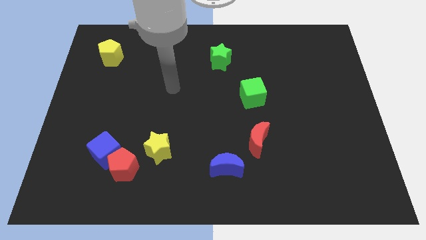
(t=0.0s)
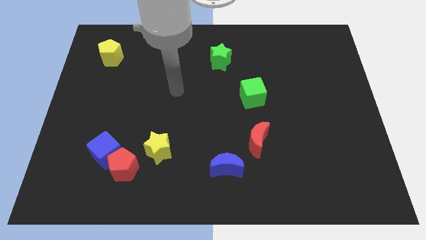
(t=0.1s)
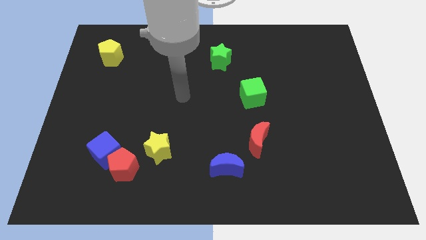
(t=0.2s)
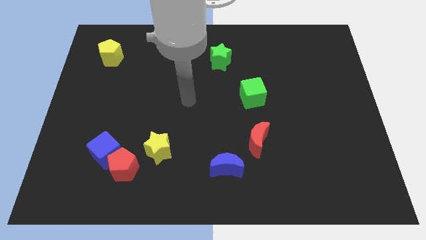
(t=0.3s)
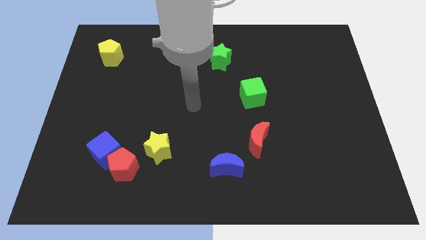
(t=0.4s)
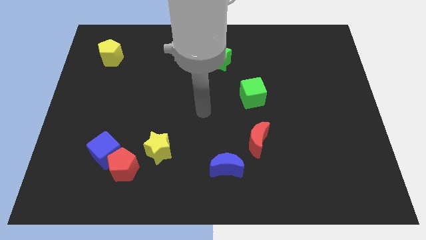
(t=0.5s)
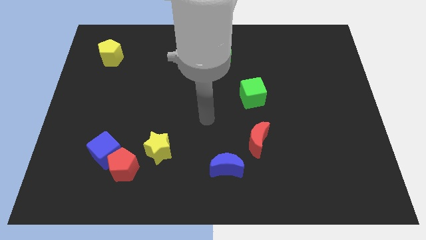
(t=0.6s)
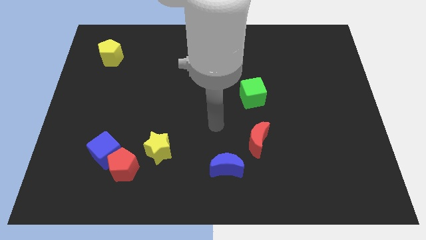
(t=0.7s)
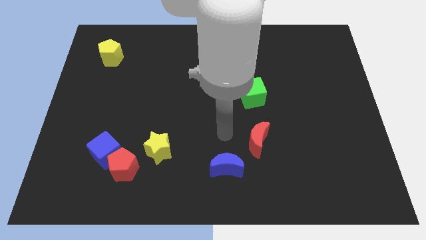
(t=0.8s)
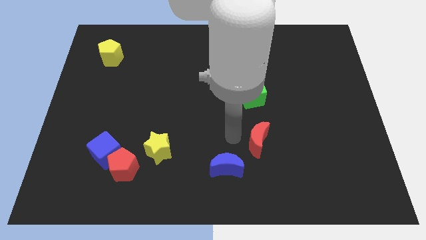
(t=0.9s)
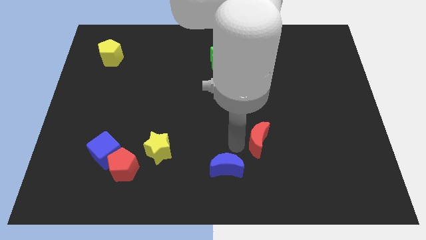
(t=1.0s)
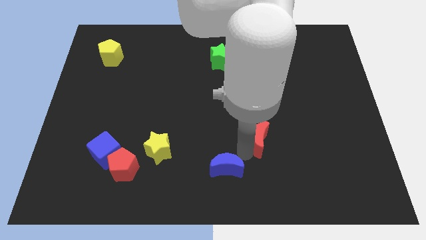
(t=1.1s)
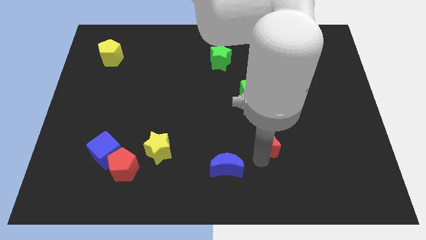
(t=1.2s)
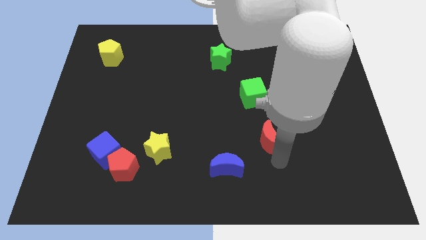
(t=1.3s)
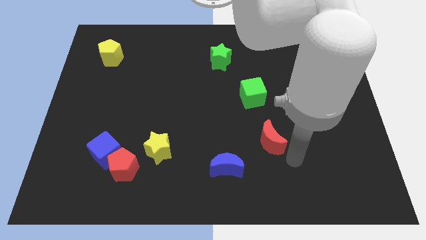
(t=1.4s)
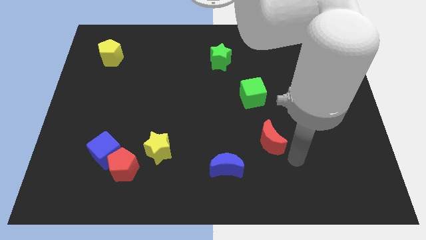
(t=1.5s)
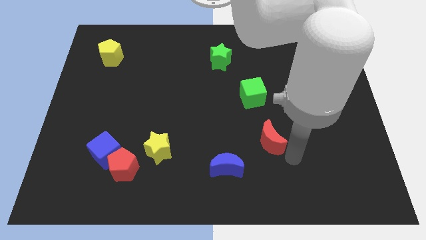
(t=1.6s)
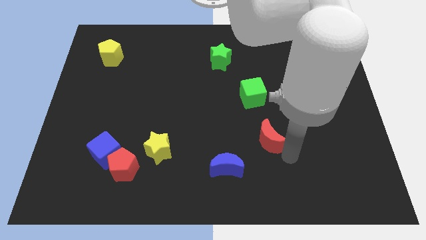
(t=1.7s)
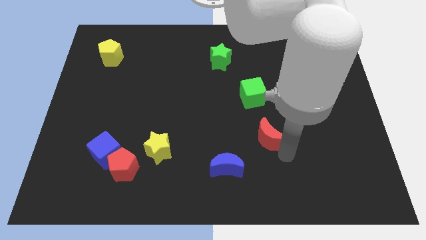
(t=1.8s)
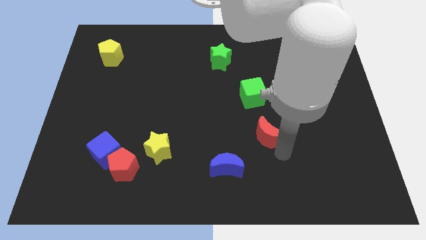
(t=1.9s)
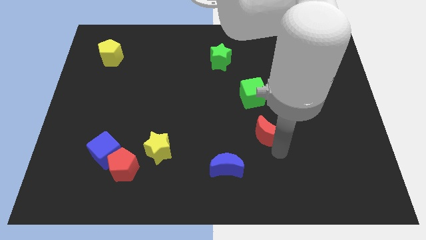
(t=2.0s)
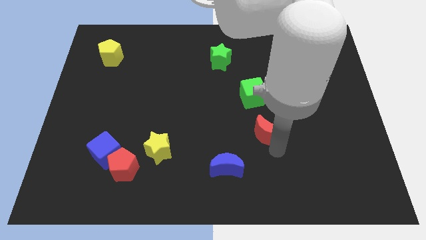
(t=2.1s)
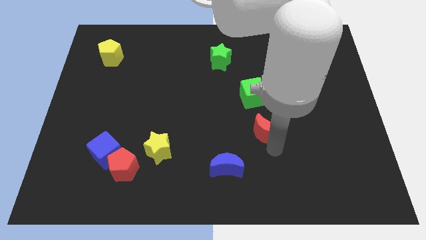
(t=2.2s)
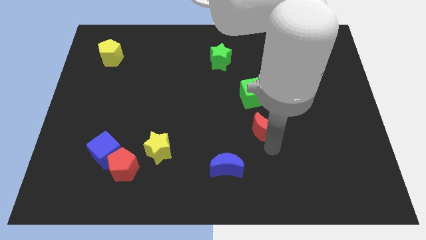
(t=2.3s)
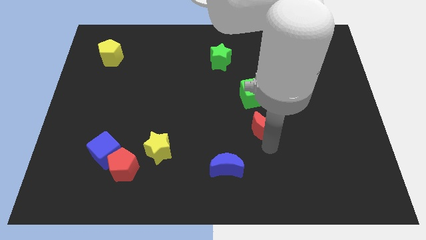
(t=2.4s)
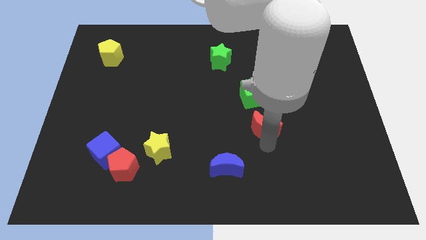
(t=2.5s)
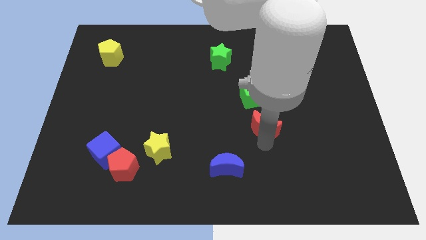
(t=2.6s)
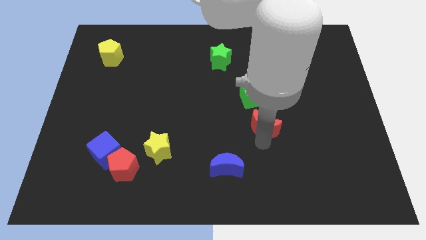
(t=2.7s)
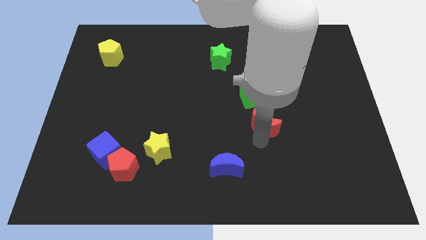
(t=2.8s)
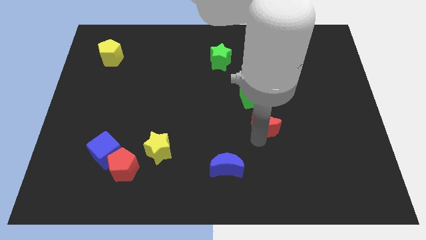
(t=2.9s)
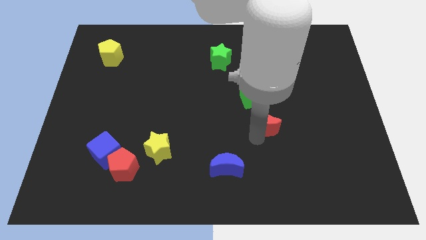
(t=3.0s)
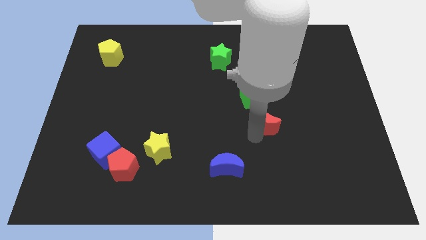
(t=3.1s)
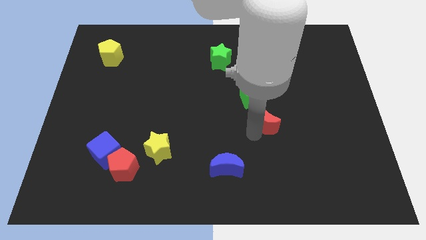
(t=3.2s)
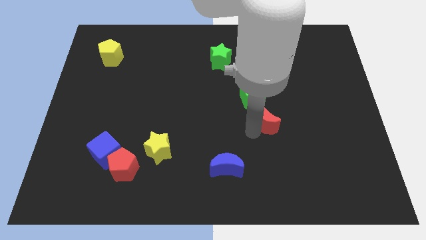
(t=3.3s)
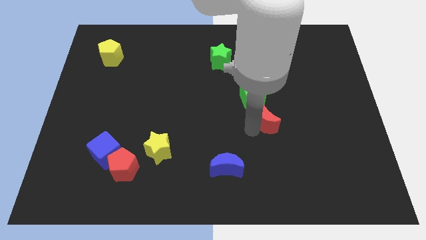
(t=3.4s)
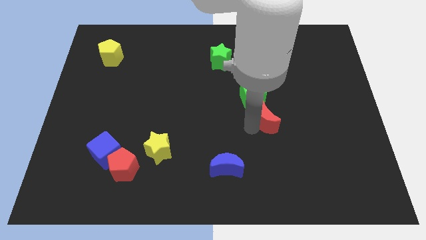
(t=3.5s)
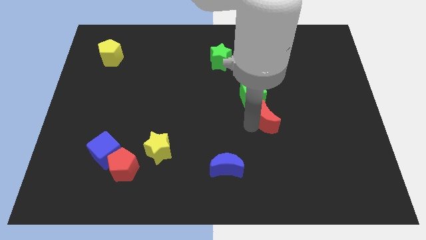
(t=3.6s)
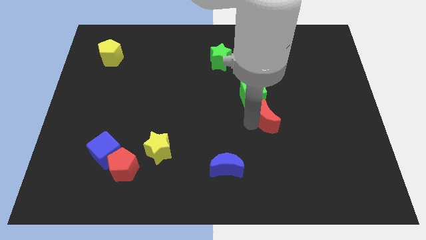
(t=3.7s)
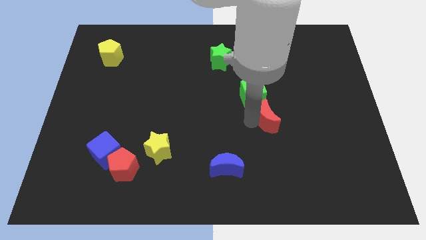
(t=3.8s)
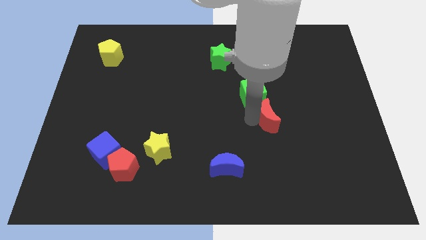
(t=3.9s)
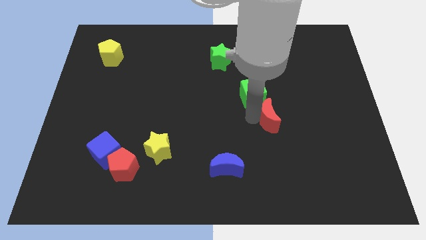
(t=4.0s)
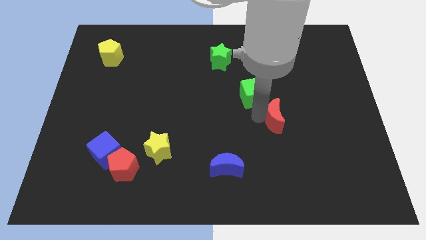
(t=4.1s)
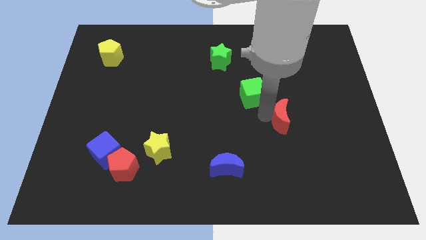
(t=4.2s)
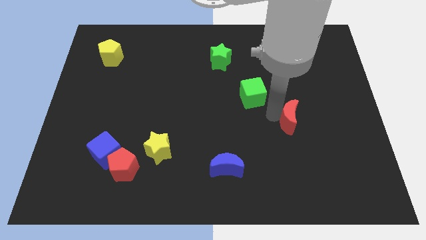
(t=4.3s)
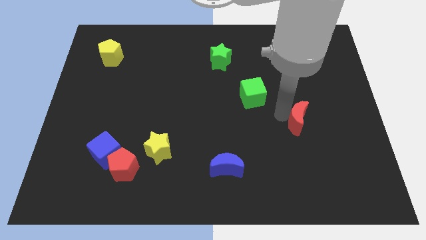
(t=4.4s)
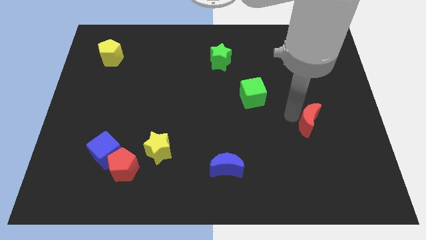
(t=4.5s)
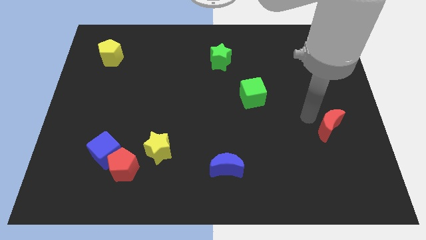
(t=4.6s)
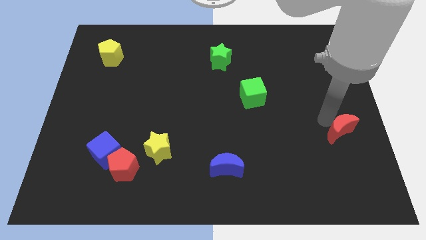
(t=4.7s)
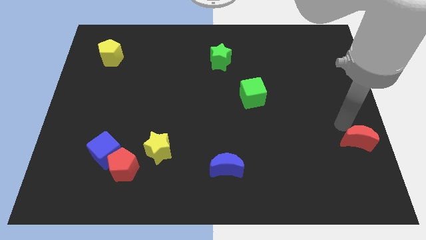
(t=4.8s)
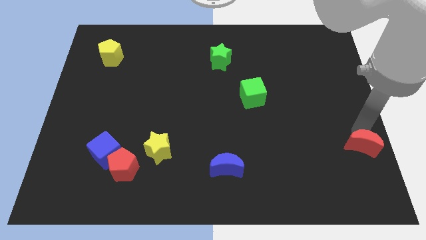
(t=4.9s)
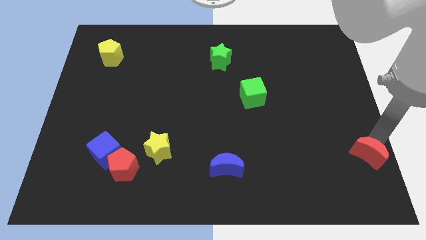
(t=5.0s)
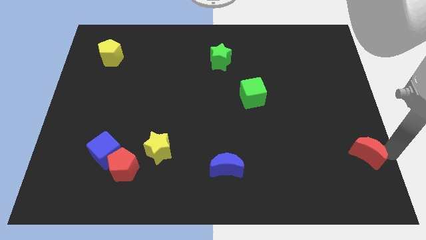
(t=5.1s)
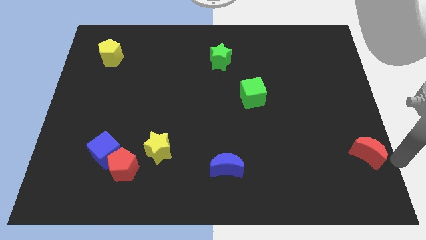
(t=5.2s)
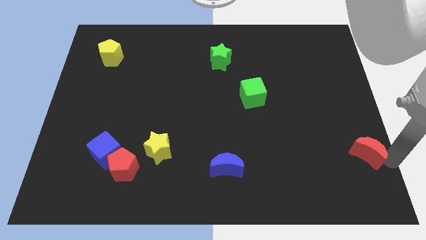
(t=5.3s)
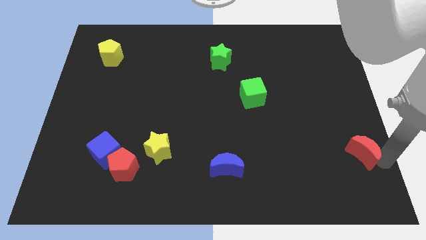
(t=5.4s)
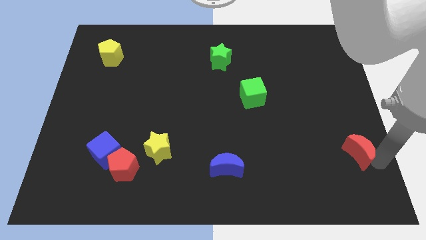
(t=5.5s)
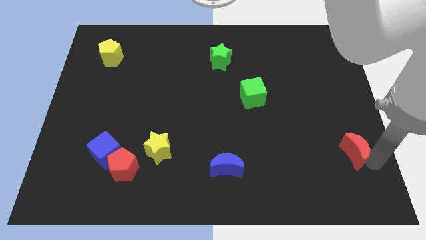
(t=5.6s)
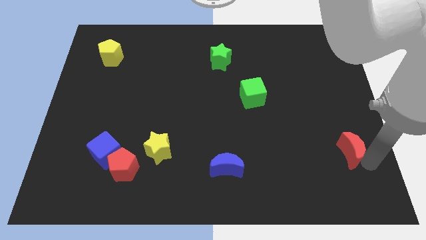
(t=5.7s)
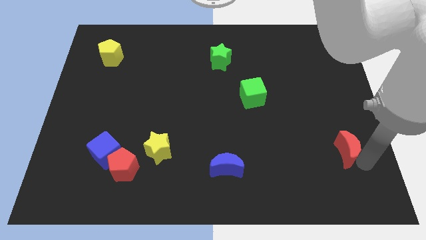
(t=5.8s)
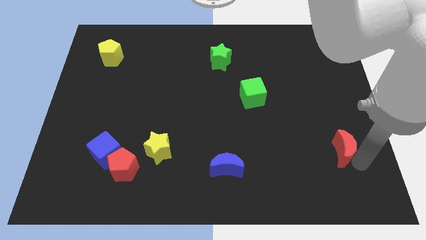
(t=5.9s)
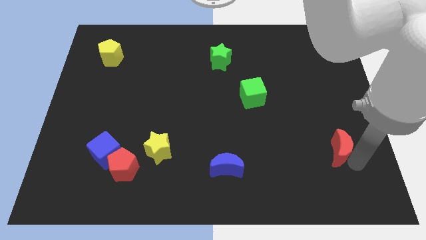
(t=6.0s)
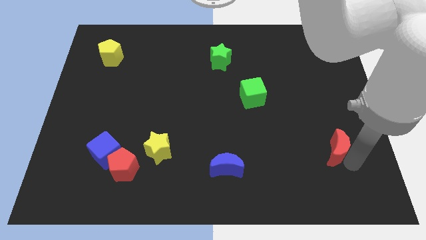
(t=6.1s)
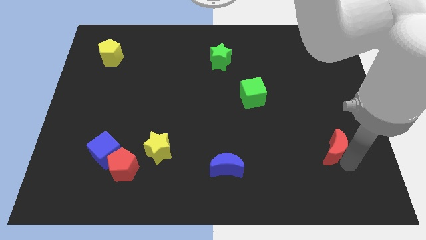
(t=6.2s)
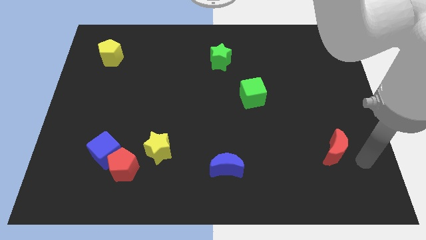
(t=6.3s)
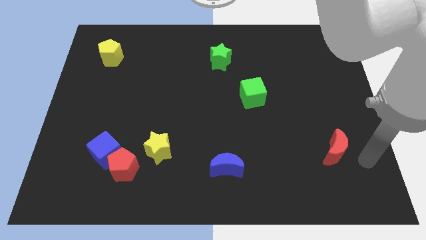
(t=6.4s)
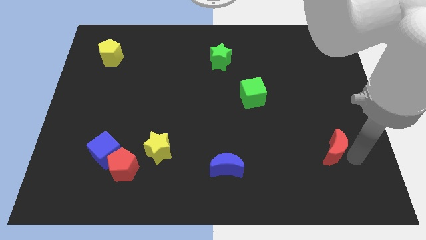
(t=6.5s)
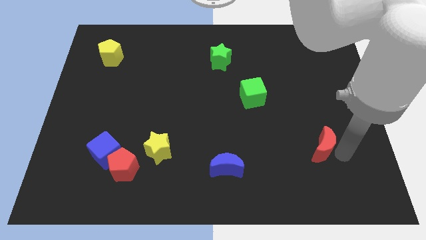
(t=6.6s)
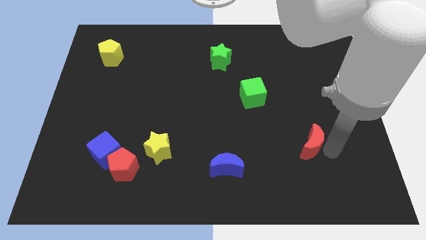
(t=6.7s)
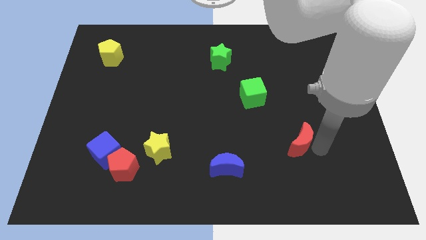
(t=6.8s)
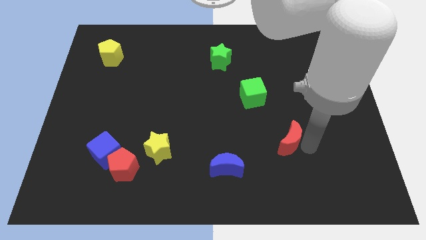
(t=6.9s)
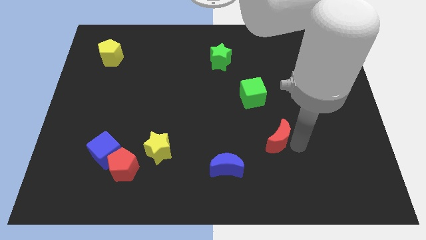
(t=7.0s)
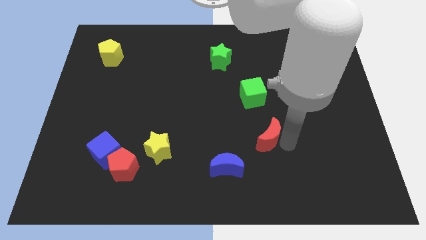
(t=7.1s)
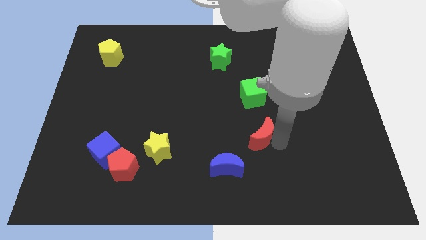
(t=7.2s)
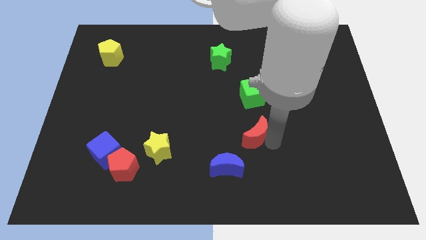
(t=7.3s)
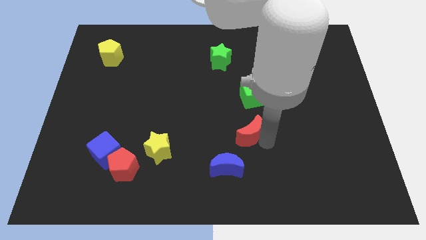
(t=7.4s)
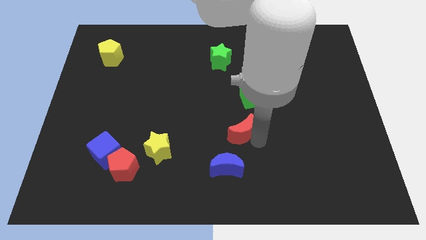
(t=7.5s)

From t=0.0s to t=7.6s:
move the red moon to the center of the board
